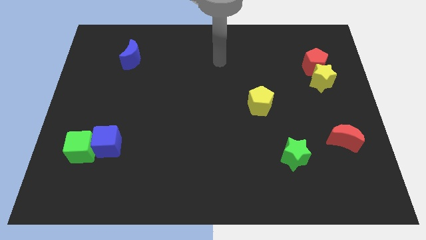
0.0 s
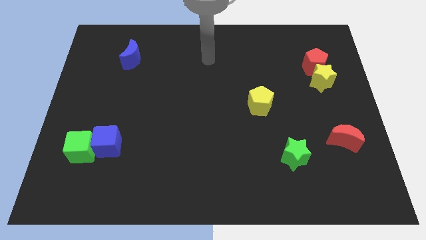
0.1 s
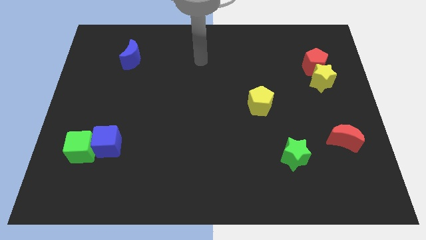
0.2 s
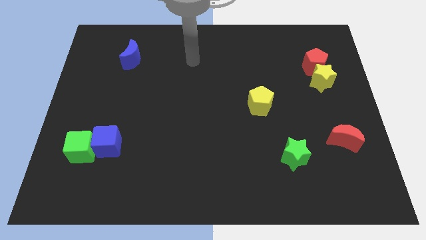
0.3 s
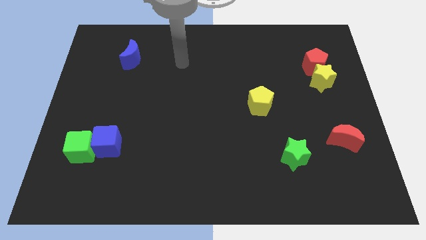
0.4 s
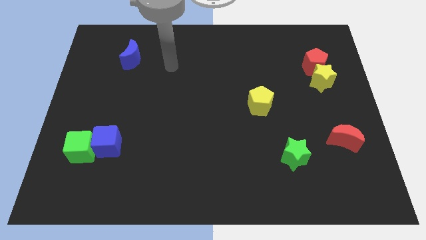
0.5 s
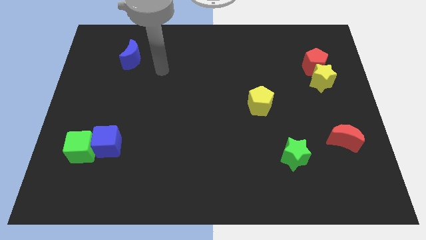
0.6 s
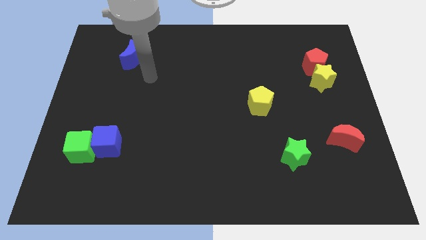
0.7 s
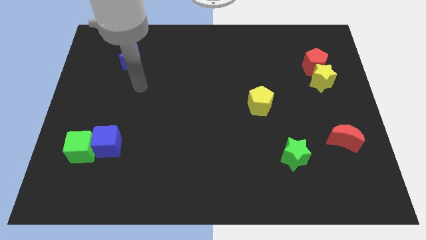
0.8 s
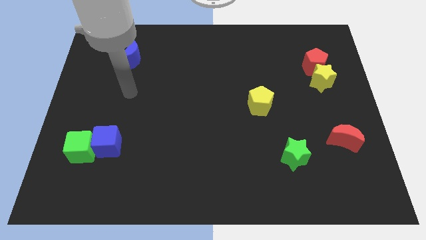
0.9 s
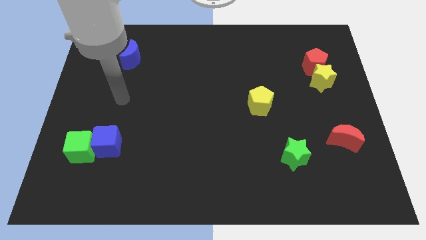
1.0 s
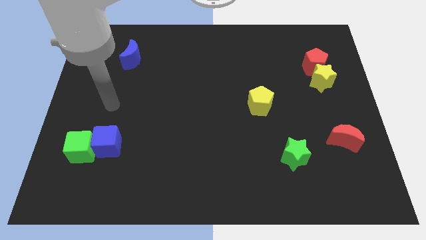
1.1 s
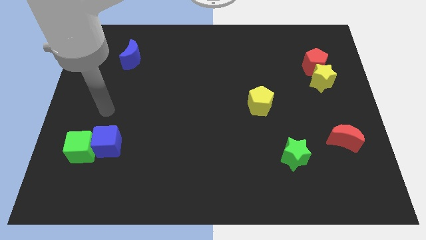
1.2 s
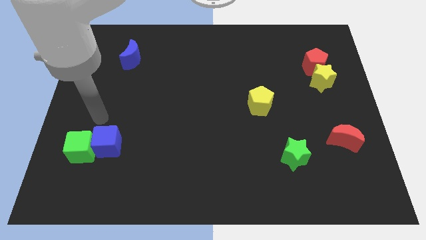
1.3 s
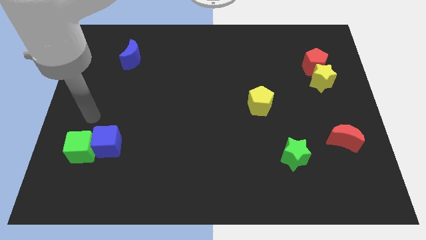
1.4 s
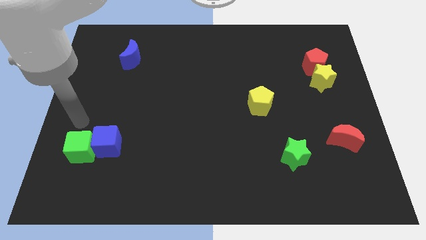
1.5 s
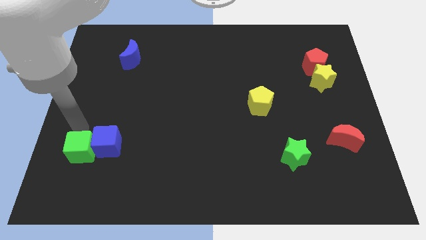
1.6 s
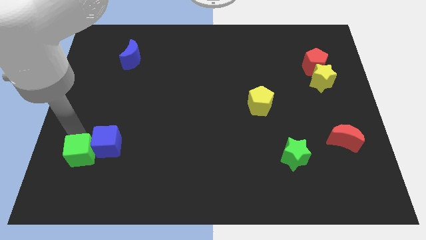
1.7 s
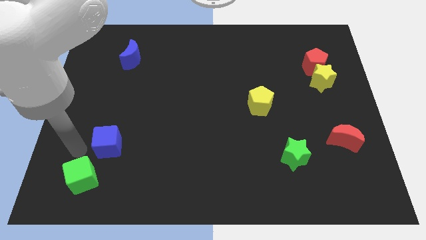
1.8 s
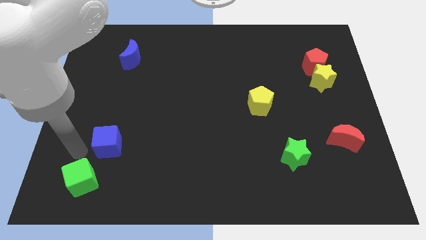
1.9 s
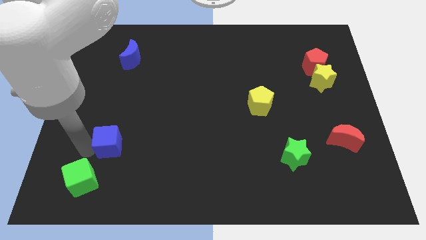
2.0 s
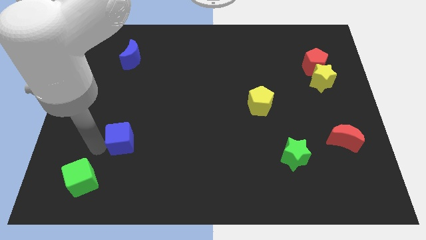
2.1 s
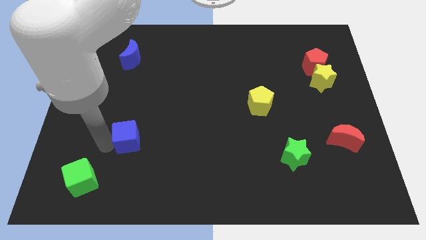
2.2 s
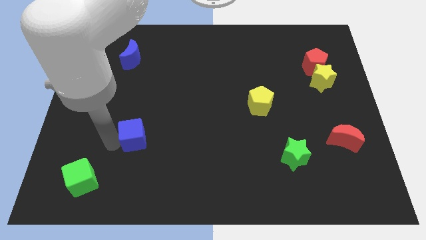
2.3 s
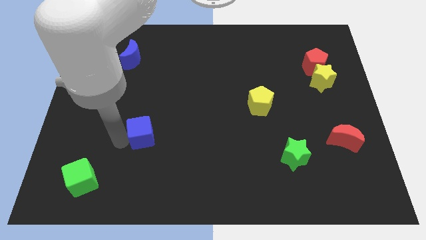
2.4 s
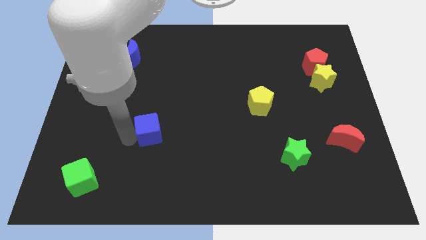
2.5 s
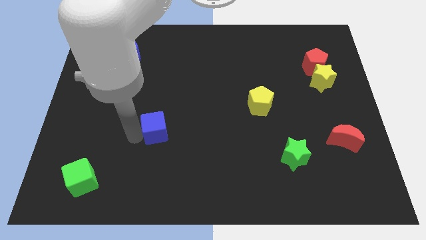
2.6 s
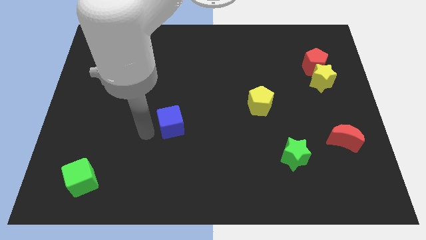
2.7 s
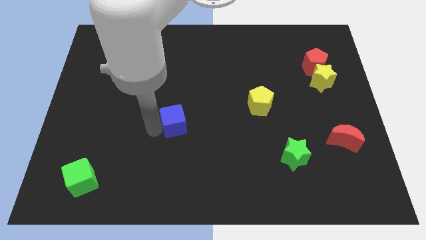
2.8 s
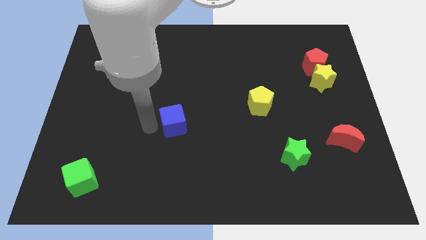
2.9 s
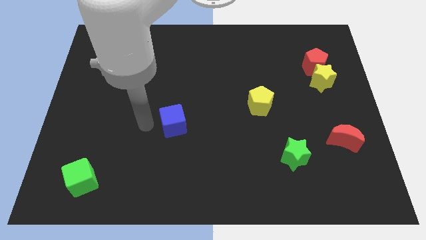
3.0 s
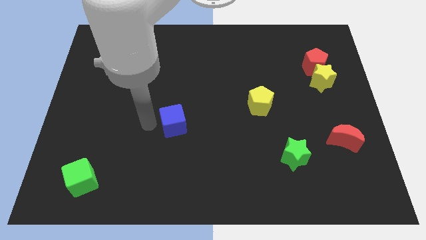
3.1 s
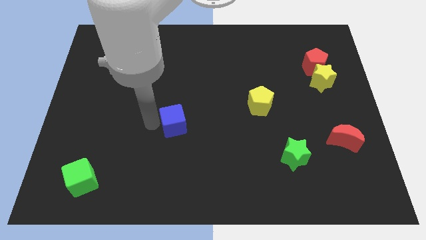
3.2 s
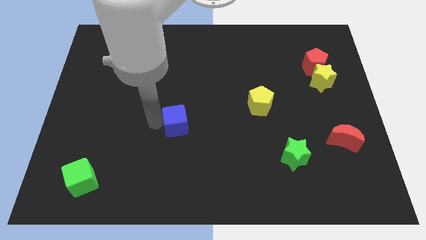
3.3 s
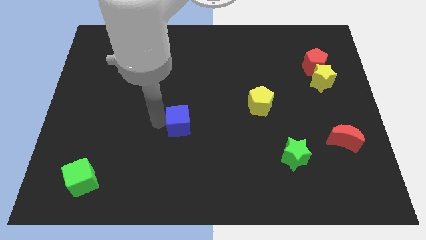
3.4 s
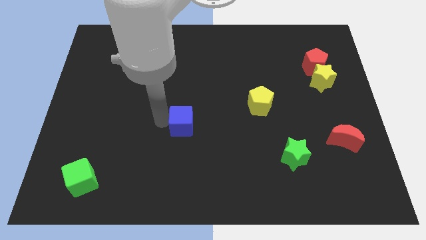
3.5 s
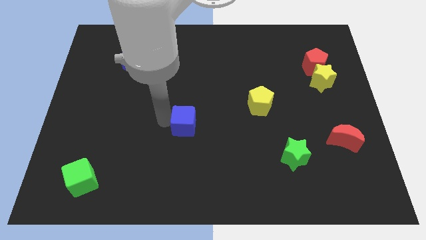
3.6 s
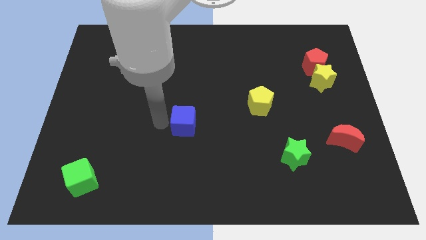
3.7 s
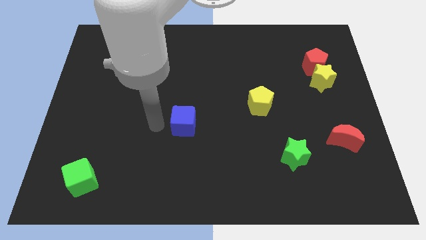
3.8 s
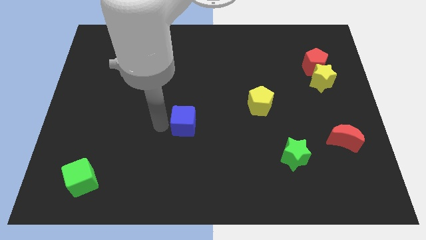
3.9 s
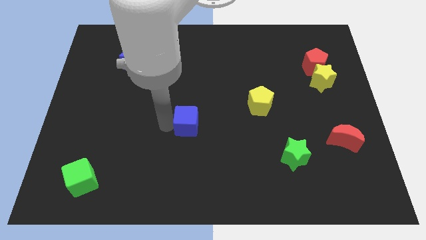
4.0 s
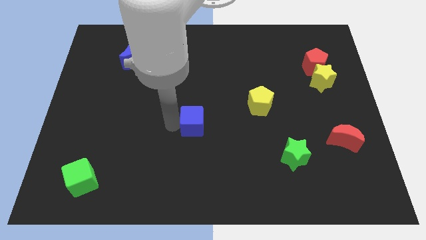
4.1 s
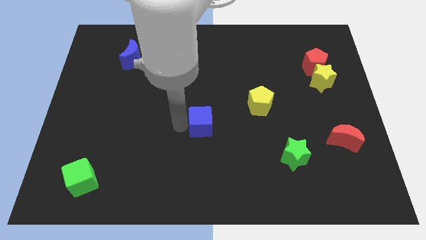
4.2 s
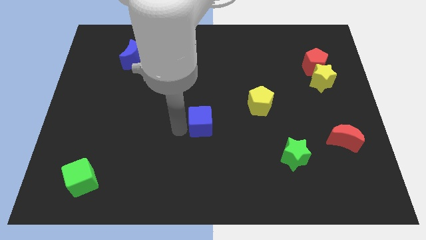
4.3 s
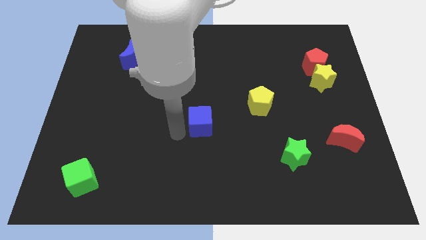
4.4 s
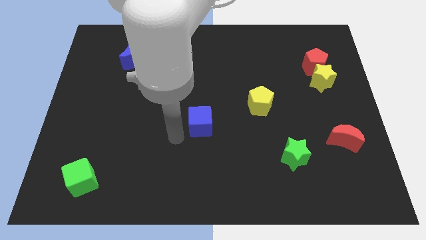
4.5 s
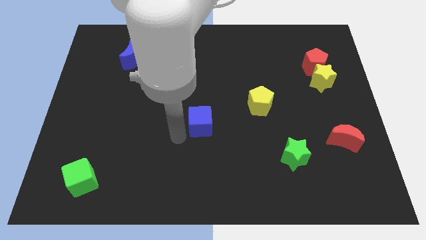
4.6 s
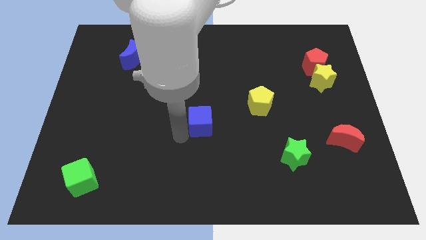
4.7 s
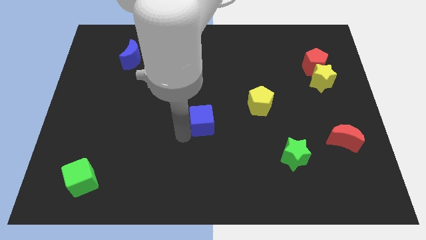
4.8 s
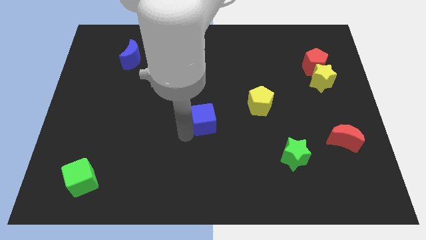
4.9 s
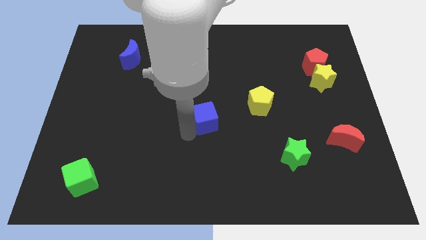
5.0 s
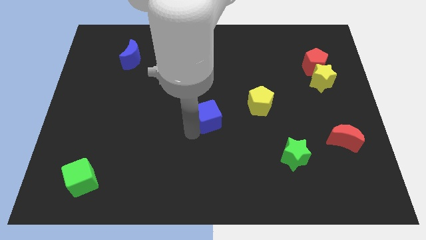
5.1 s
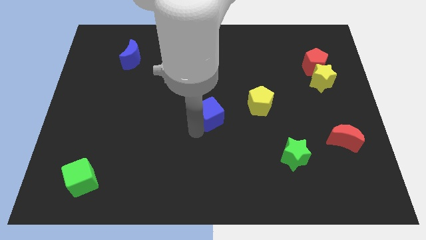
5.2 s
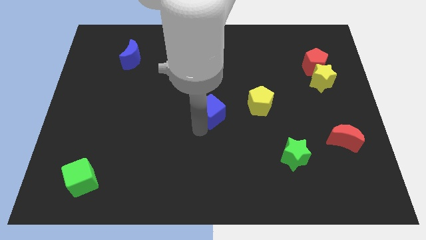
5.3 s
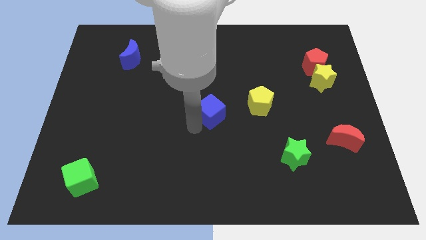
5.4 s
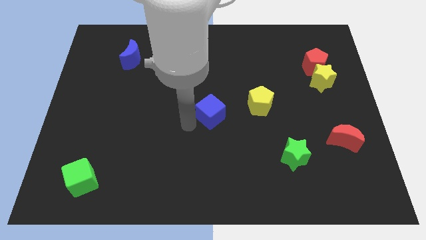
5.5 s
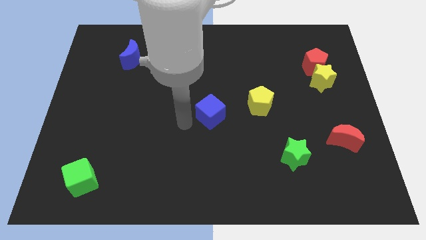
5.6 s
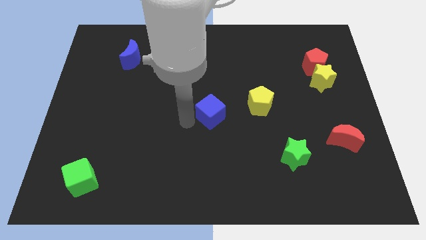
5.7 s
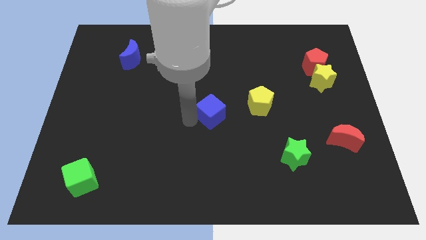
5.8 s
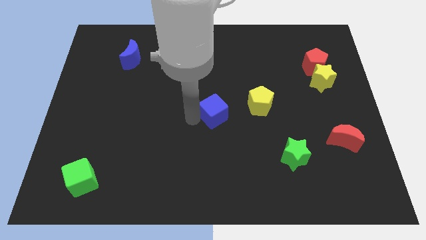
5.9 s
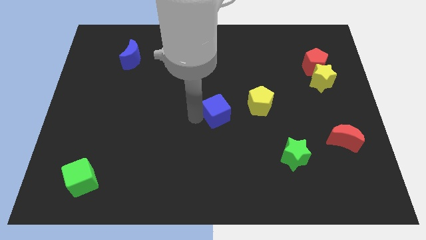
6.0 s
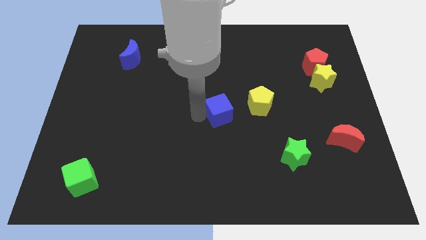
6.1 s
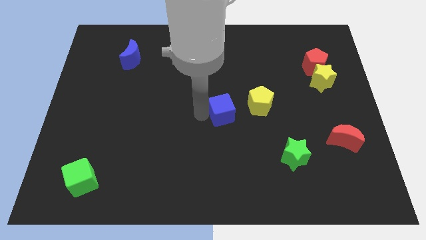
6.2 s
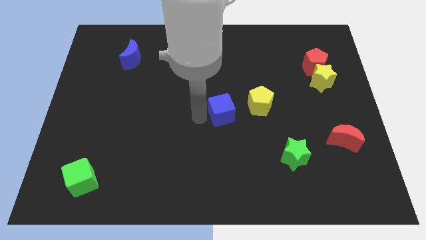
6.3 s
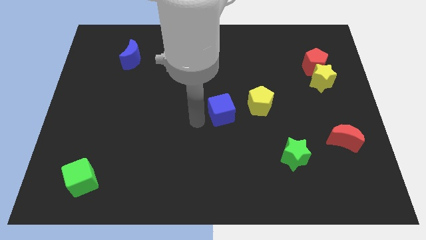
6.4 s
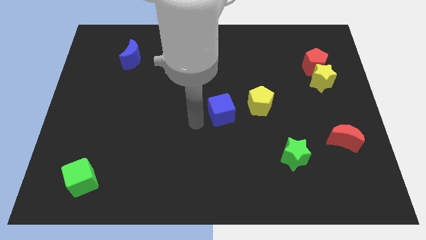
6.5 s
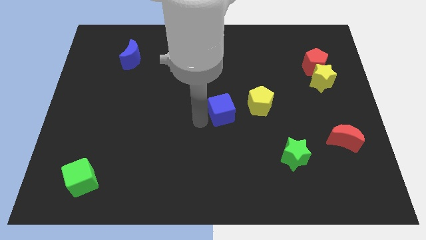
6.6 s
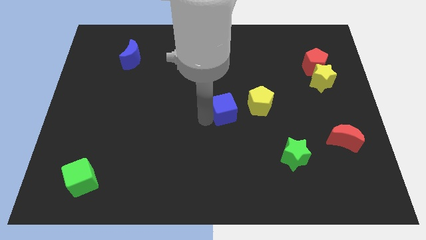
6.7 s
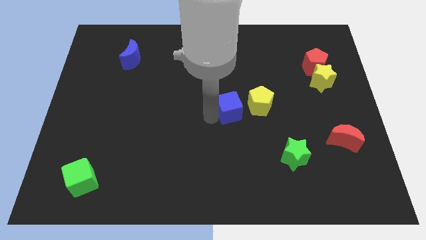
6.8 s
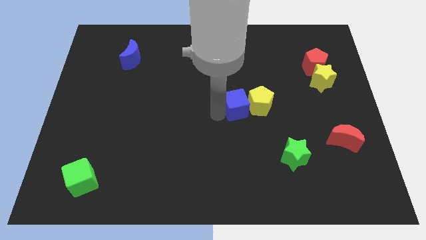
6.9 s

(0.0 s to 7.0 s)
put the blue cube to the yellow pentagon

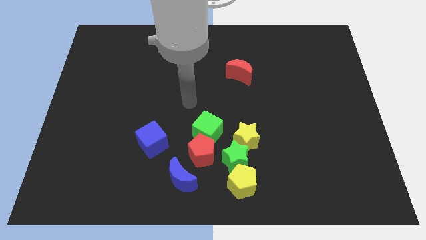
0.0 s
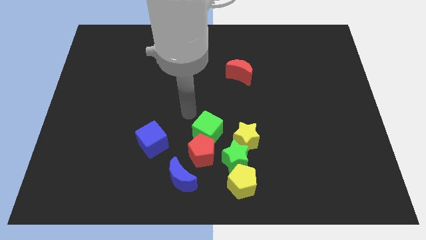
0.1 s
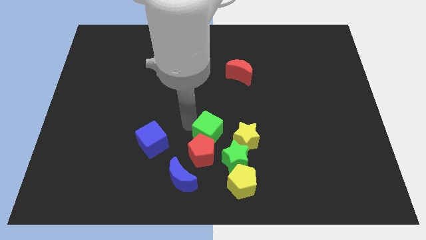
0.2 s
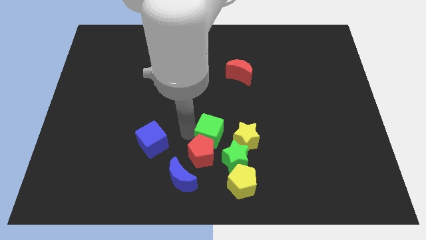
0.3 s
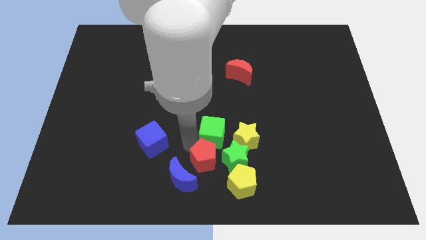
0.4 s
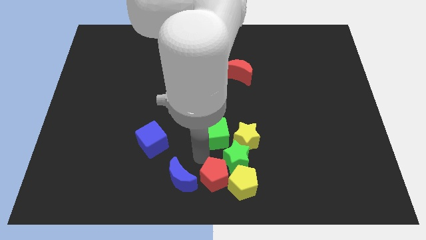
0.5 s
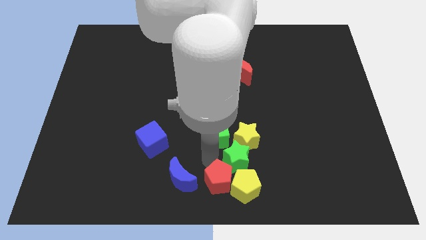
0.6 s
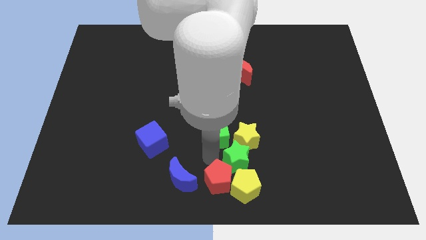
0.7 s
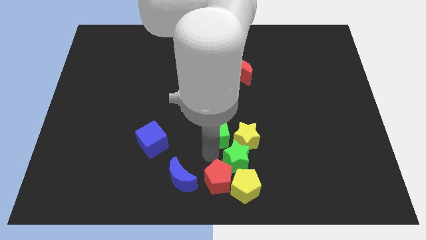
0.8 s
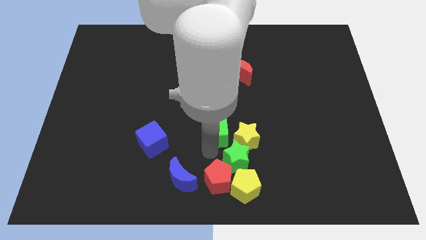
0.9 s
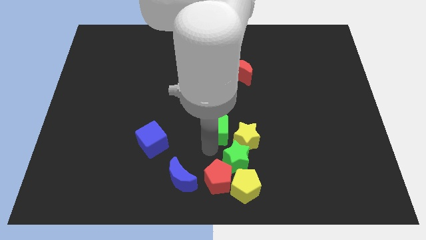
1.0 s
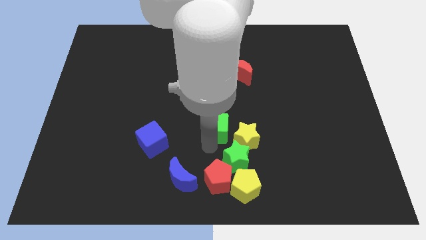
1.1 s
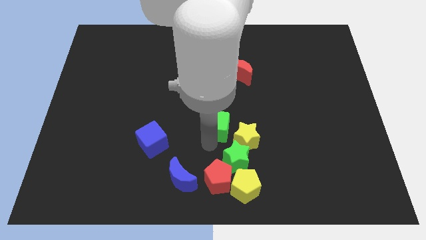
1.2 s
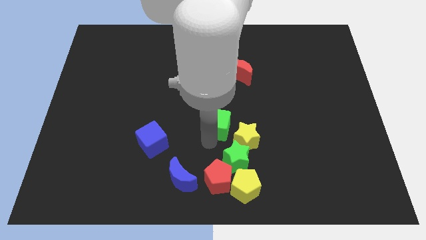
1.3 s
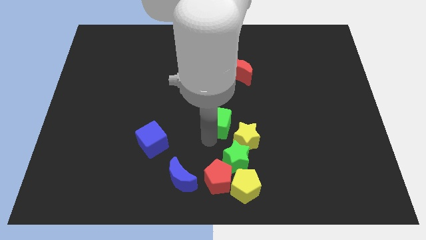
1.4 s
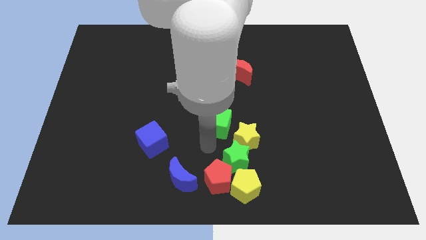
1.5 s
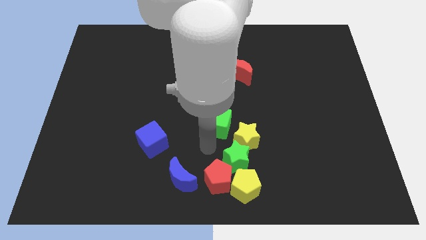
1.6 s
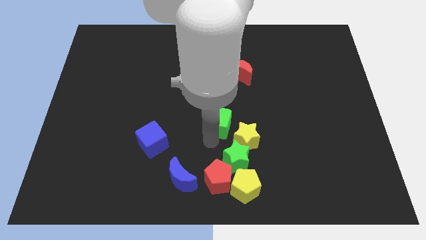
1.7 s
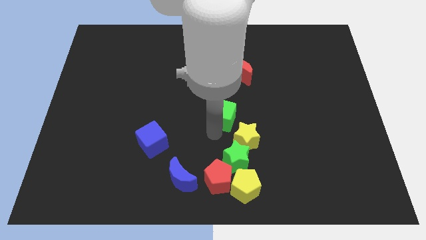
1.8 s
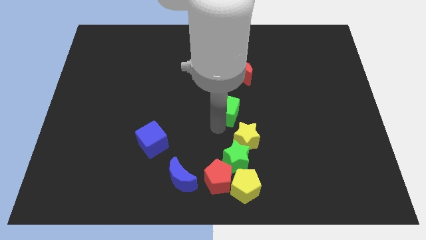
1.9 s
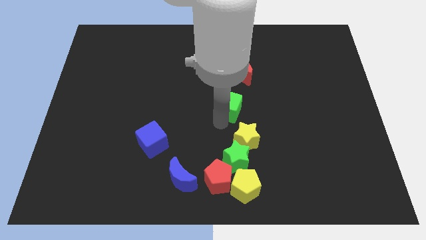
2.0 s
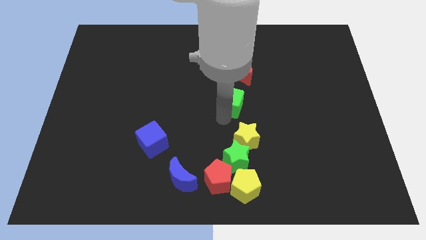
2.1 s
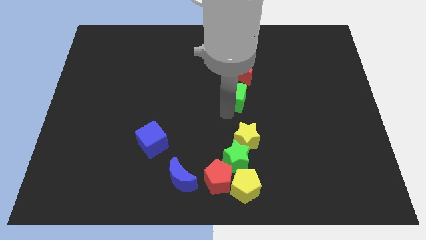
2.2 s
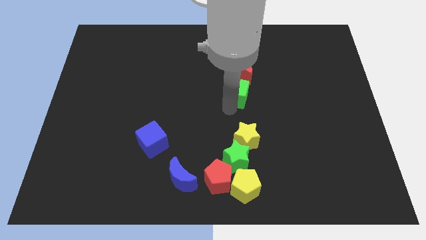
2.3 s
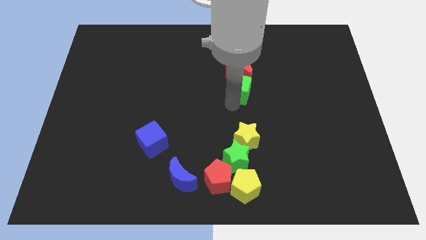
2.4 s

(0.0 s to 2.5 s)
put the green cube close to the red moon
